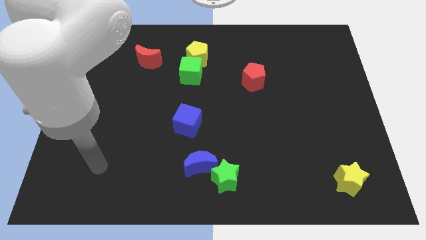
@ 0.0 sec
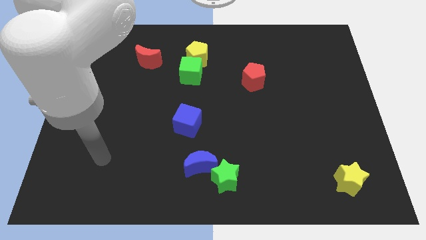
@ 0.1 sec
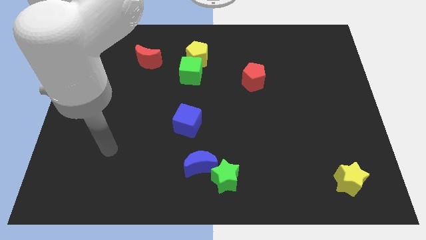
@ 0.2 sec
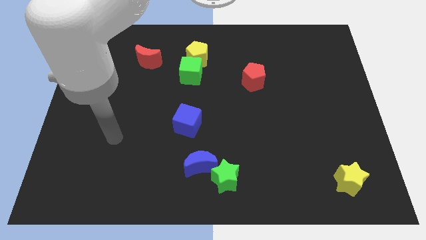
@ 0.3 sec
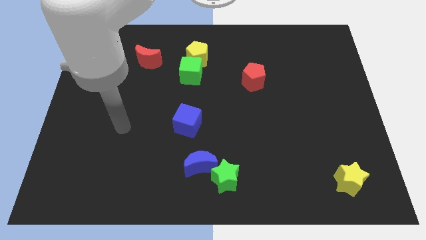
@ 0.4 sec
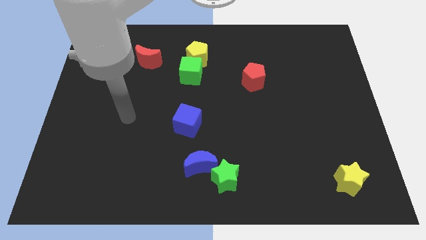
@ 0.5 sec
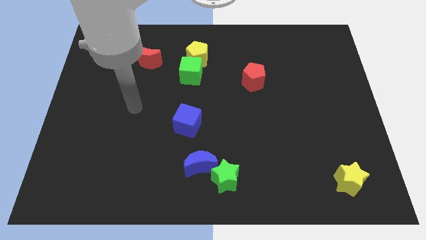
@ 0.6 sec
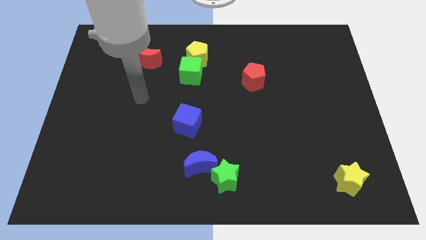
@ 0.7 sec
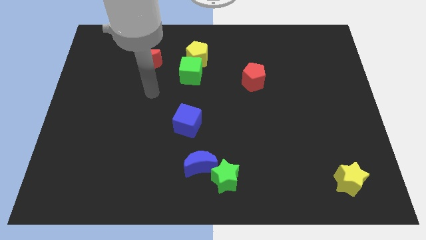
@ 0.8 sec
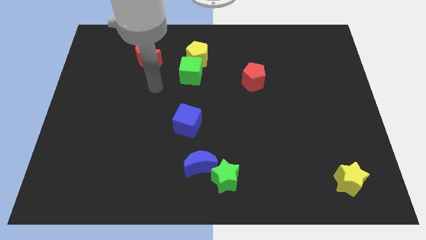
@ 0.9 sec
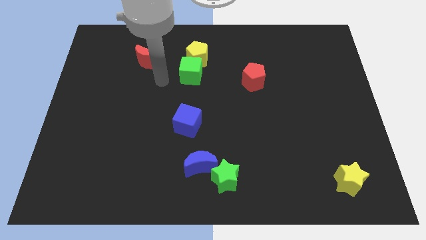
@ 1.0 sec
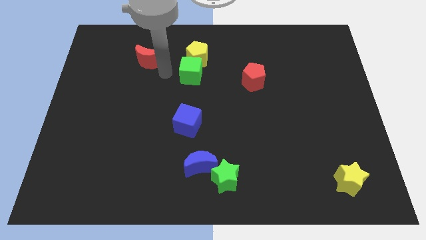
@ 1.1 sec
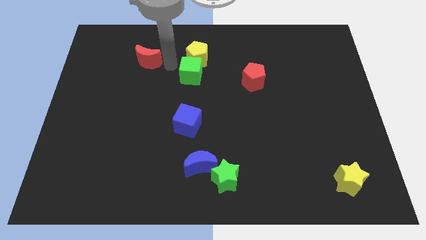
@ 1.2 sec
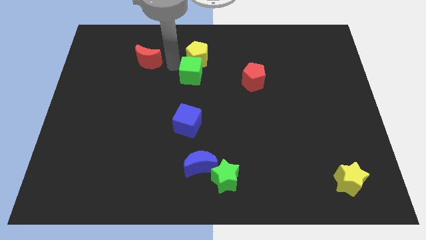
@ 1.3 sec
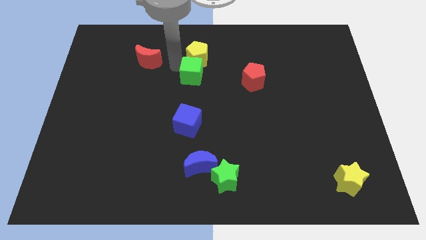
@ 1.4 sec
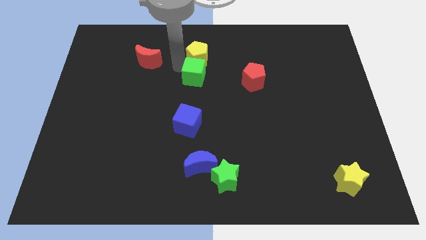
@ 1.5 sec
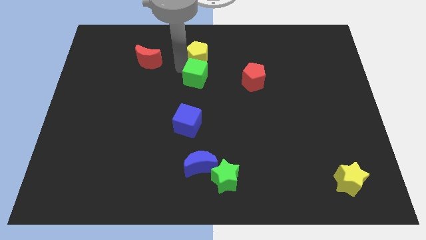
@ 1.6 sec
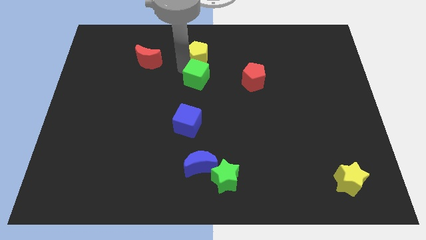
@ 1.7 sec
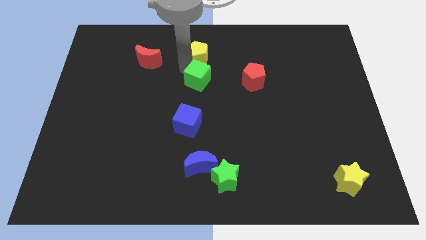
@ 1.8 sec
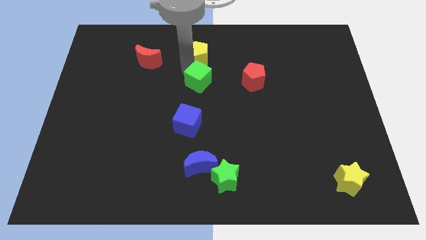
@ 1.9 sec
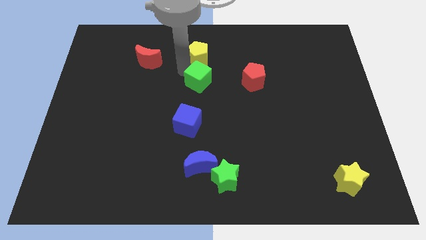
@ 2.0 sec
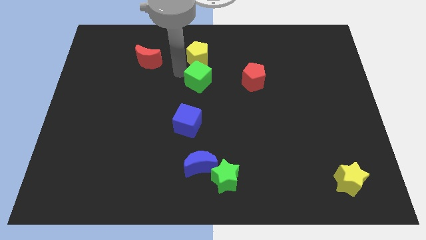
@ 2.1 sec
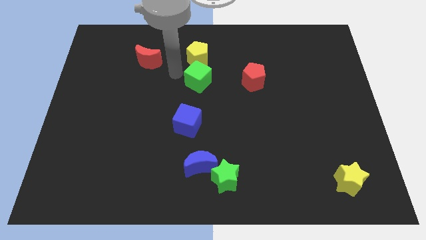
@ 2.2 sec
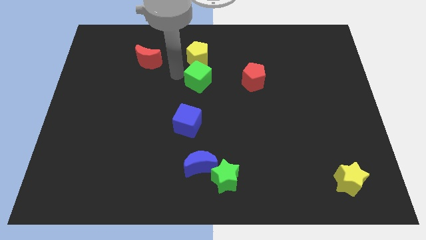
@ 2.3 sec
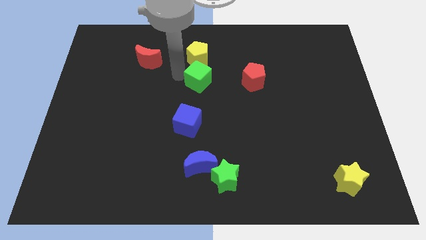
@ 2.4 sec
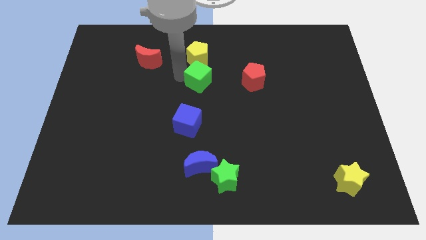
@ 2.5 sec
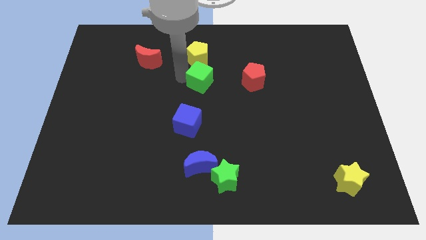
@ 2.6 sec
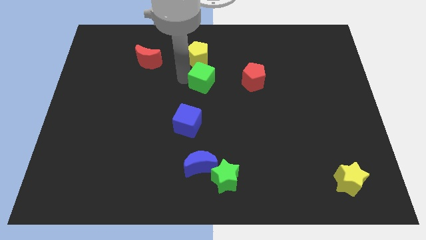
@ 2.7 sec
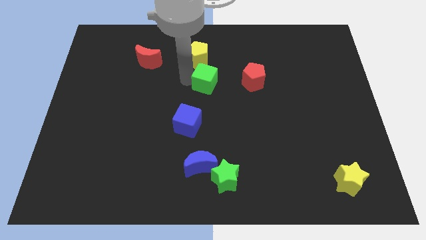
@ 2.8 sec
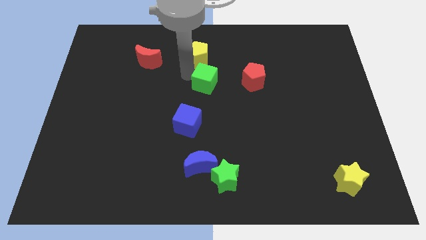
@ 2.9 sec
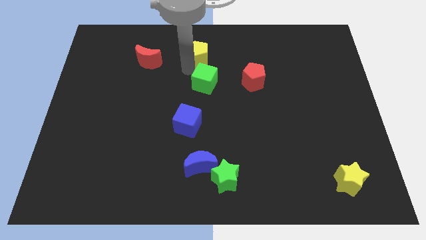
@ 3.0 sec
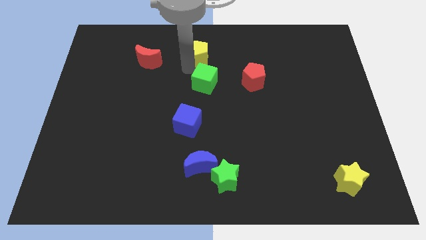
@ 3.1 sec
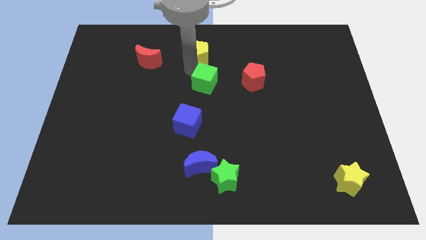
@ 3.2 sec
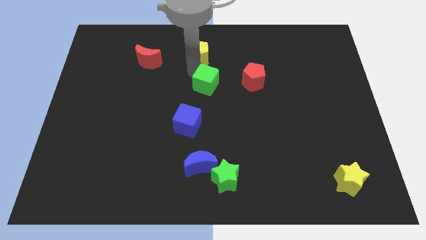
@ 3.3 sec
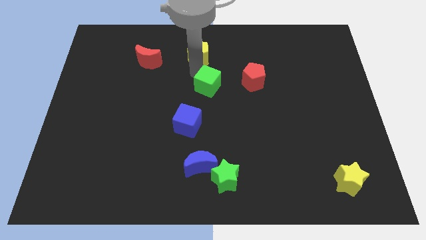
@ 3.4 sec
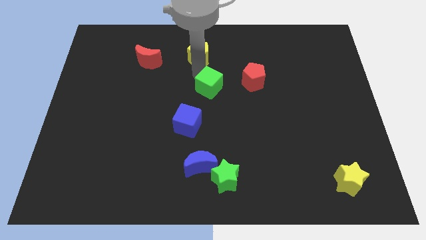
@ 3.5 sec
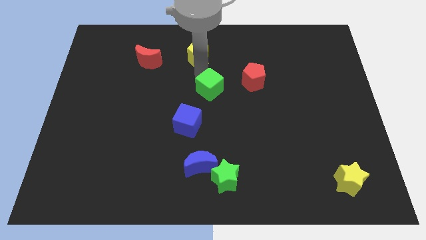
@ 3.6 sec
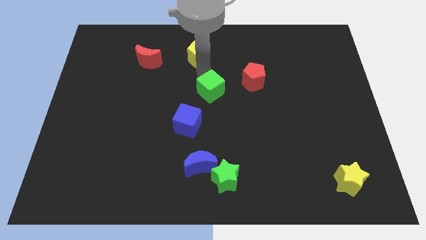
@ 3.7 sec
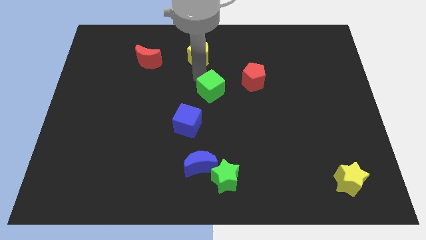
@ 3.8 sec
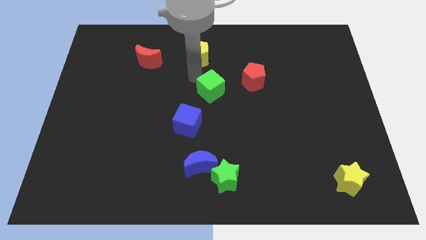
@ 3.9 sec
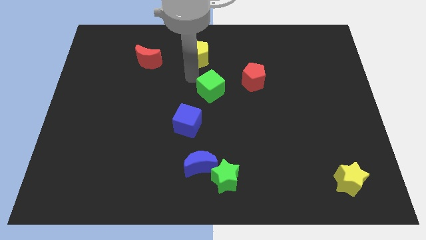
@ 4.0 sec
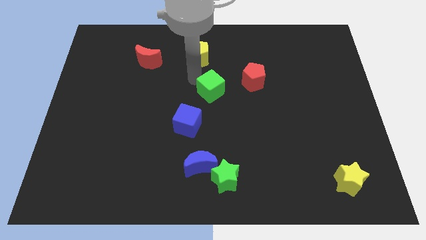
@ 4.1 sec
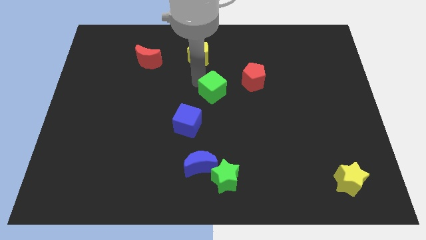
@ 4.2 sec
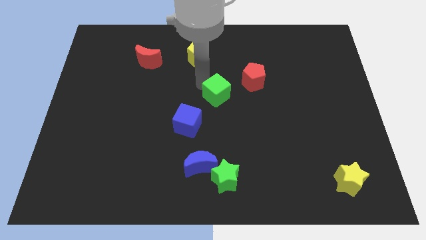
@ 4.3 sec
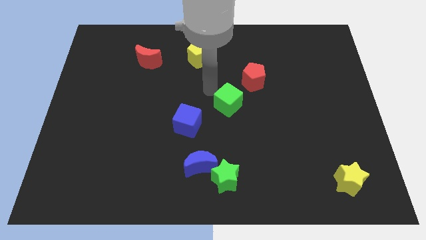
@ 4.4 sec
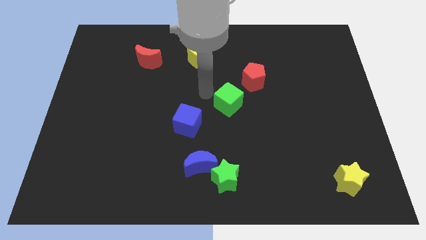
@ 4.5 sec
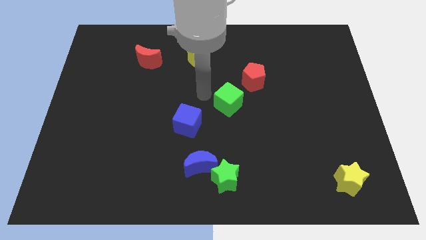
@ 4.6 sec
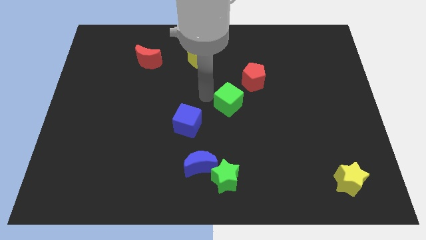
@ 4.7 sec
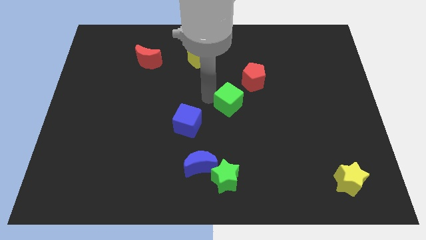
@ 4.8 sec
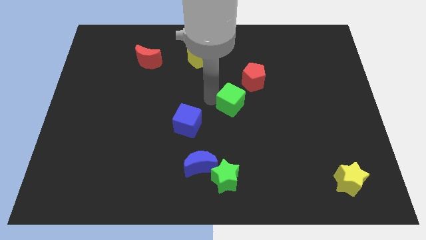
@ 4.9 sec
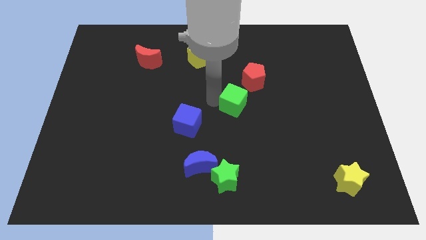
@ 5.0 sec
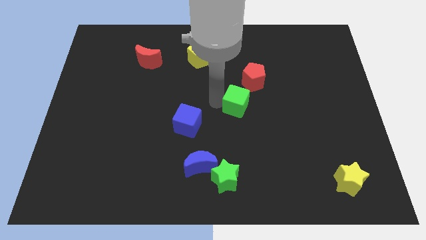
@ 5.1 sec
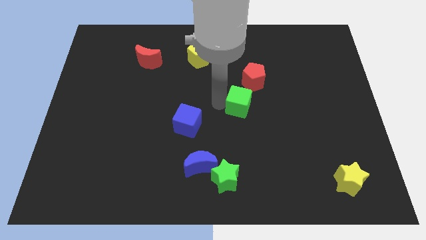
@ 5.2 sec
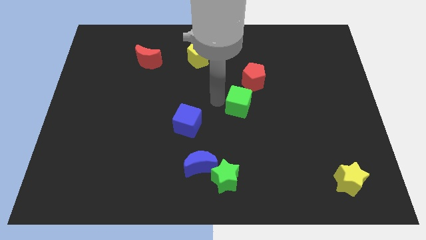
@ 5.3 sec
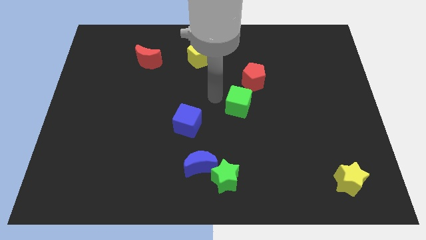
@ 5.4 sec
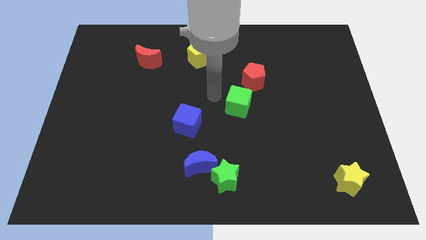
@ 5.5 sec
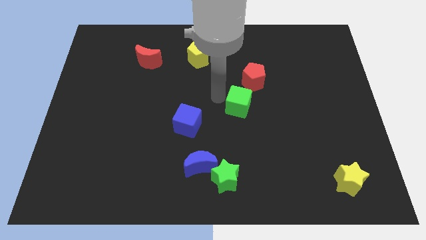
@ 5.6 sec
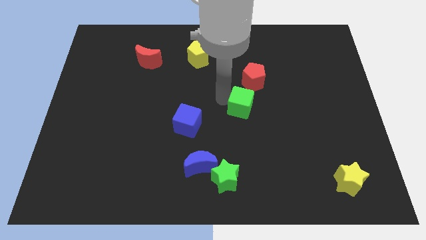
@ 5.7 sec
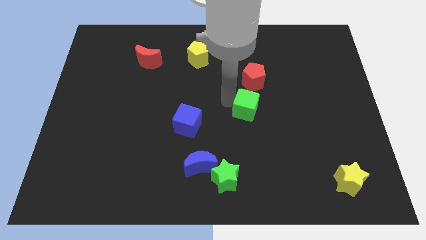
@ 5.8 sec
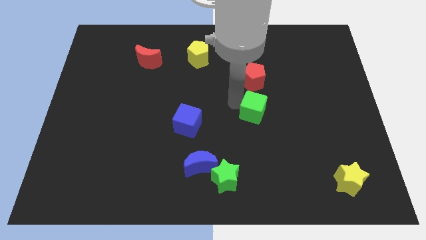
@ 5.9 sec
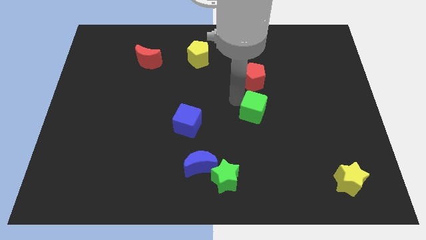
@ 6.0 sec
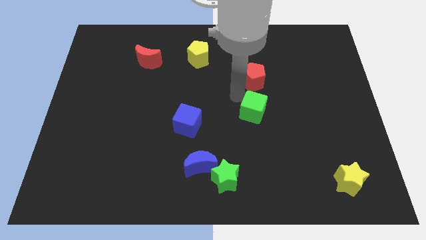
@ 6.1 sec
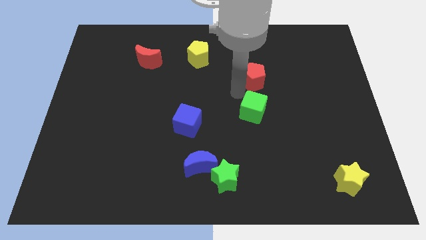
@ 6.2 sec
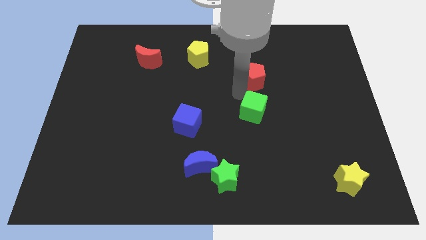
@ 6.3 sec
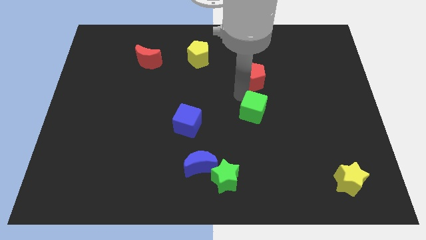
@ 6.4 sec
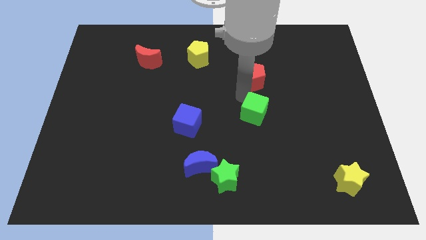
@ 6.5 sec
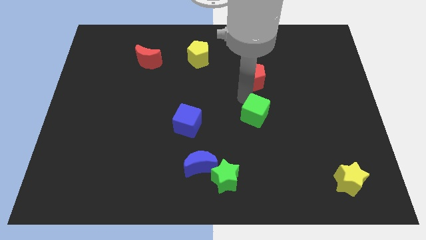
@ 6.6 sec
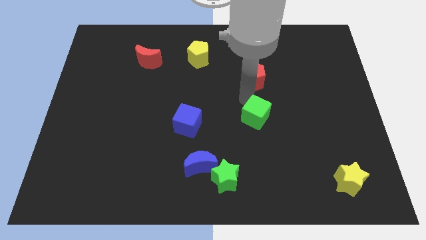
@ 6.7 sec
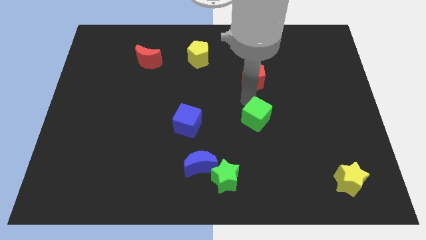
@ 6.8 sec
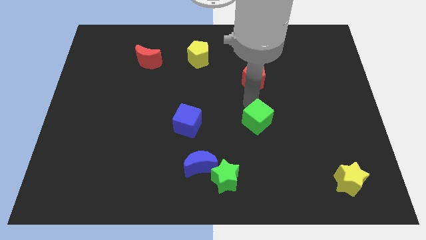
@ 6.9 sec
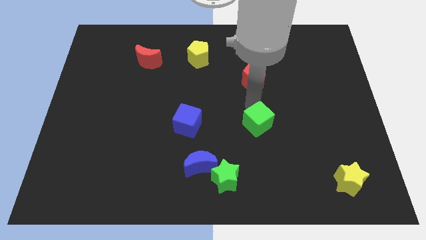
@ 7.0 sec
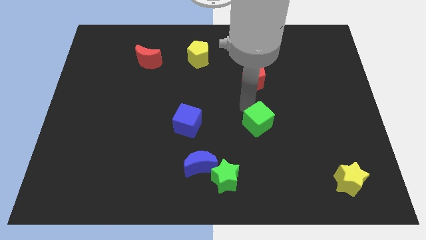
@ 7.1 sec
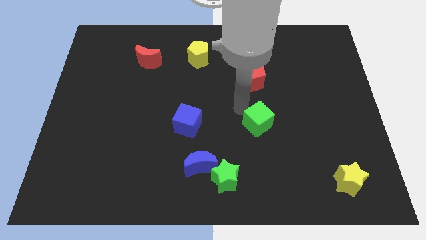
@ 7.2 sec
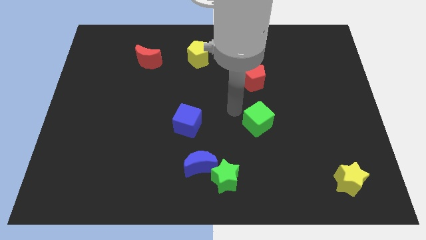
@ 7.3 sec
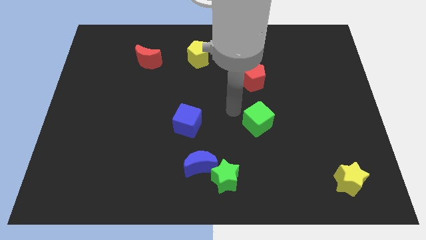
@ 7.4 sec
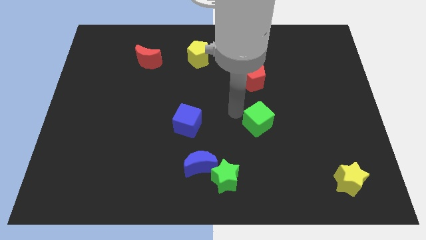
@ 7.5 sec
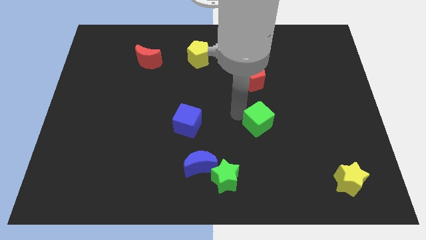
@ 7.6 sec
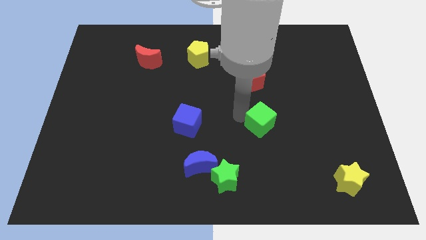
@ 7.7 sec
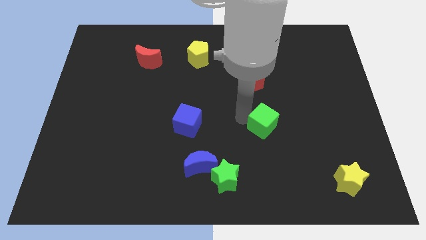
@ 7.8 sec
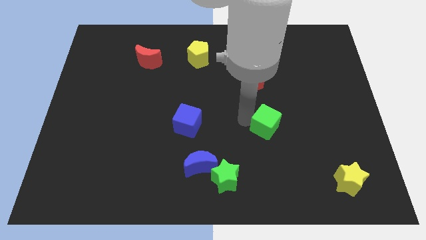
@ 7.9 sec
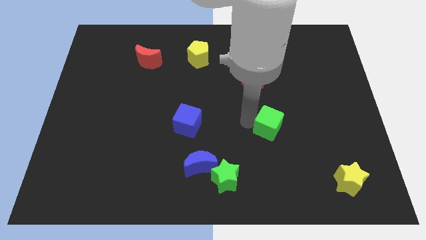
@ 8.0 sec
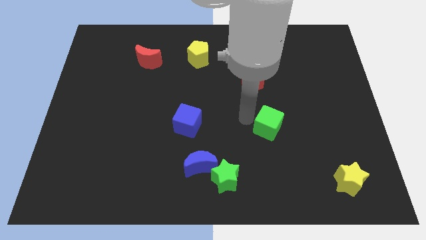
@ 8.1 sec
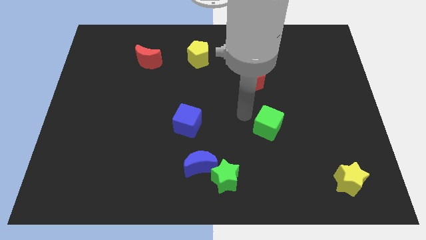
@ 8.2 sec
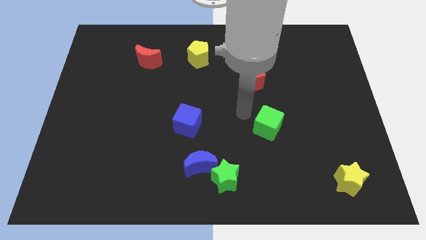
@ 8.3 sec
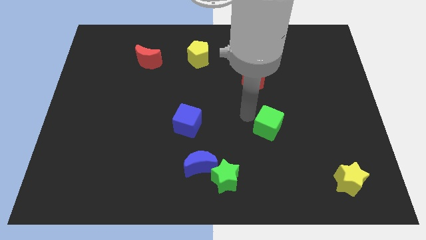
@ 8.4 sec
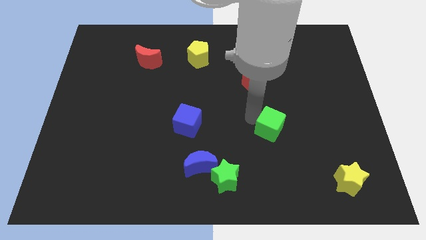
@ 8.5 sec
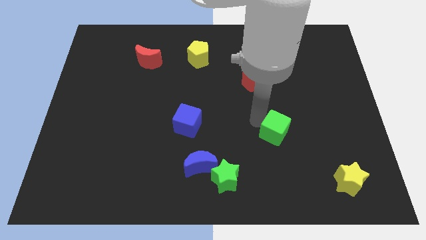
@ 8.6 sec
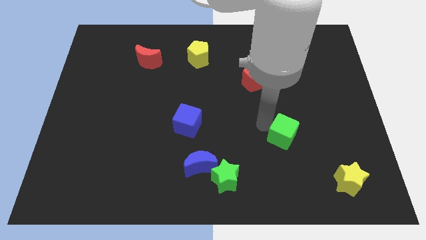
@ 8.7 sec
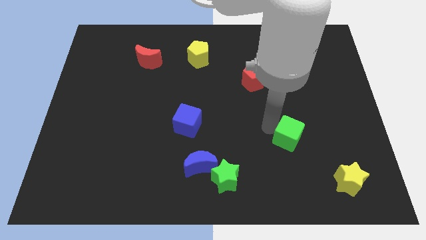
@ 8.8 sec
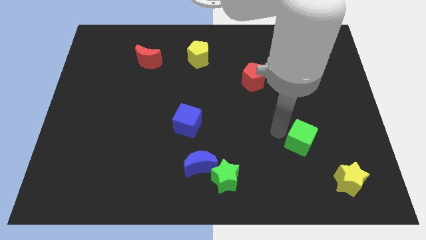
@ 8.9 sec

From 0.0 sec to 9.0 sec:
slide the green cube to the top left of the yellow star
